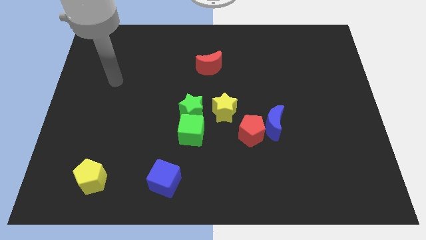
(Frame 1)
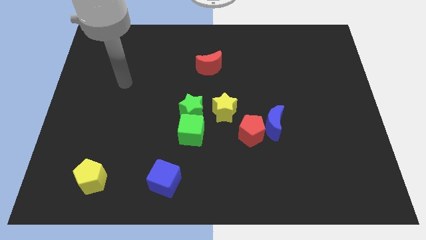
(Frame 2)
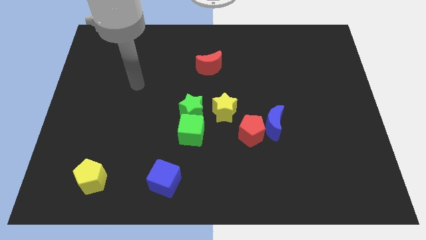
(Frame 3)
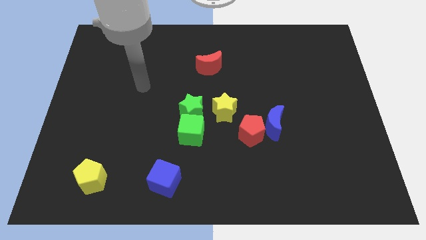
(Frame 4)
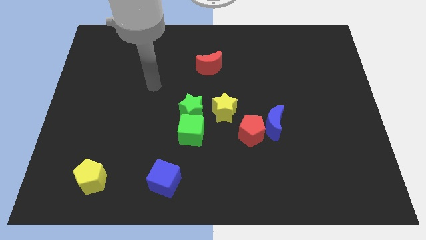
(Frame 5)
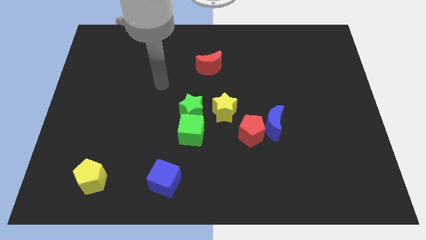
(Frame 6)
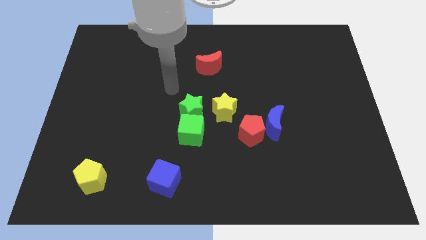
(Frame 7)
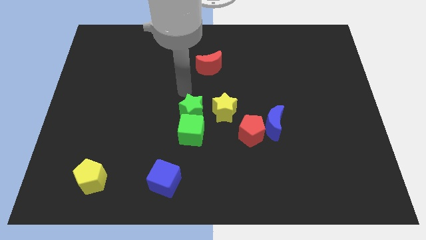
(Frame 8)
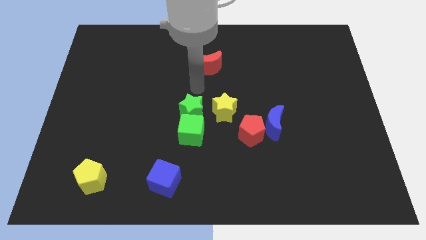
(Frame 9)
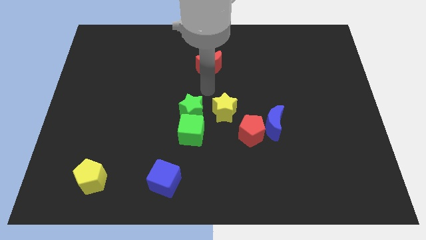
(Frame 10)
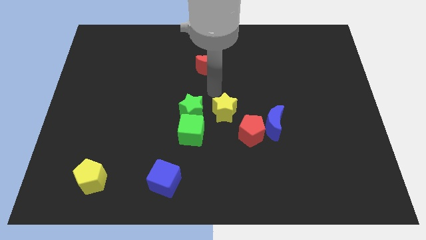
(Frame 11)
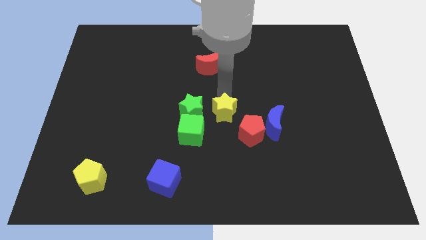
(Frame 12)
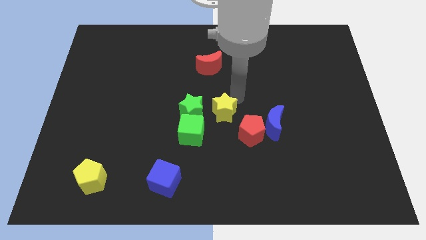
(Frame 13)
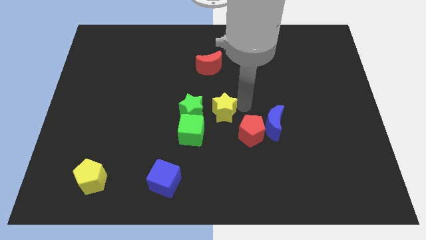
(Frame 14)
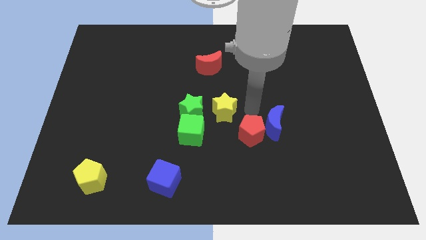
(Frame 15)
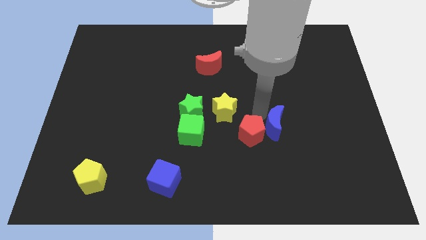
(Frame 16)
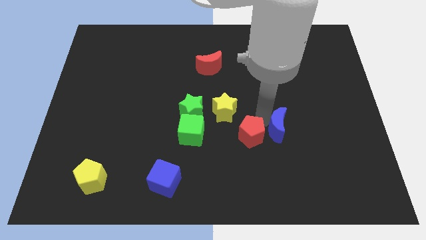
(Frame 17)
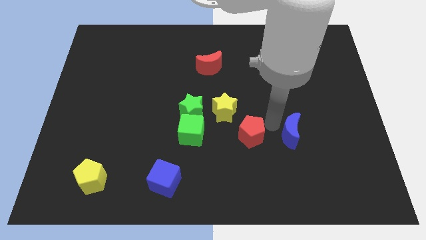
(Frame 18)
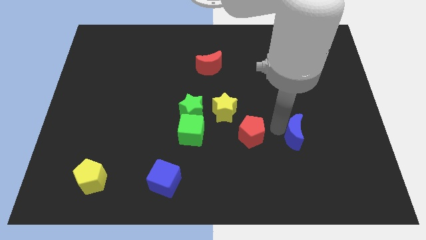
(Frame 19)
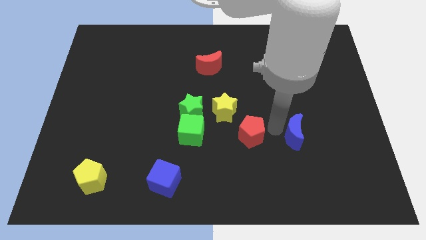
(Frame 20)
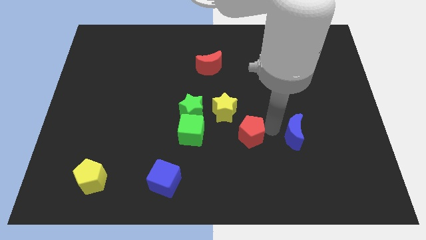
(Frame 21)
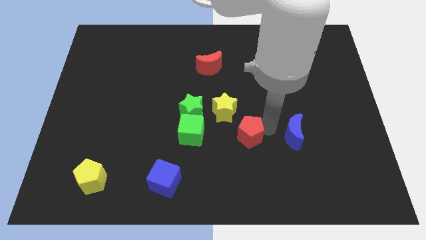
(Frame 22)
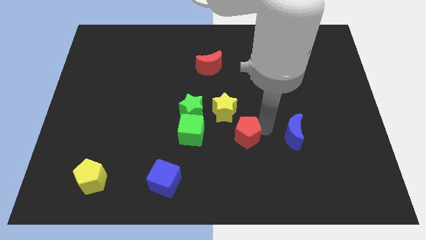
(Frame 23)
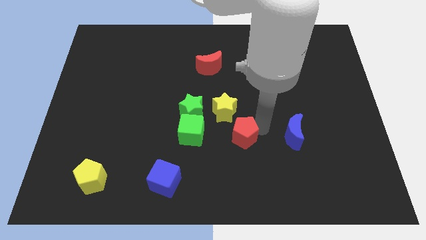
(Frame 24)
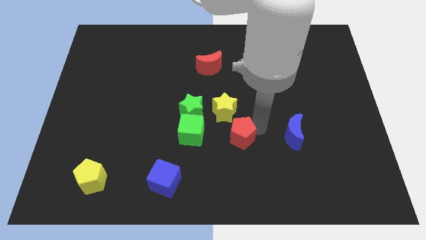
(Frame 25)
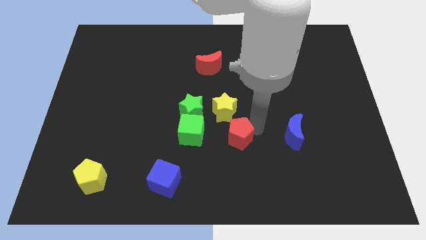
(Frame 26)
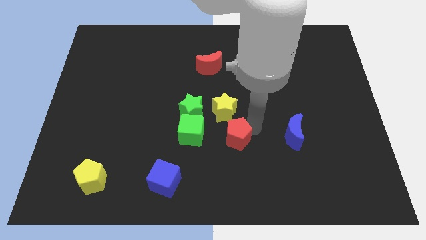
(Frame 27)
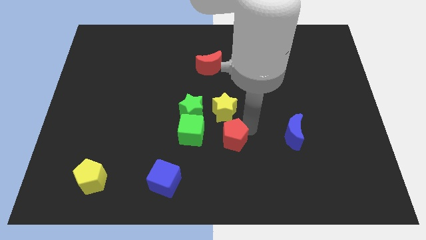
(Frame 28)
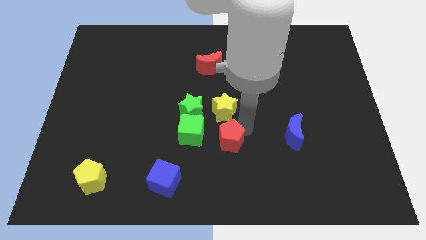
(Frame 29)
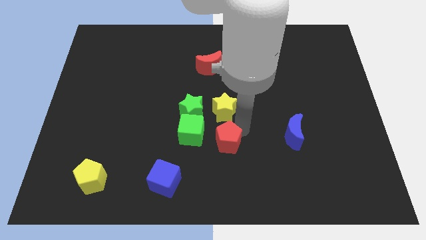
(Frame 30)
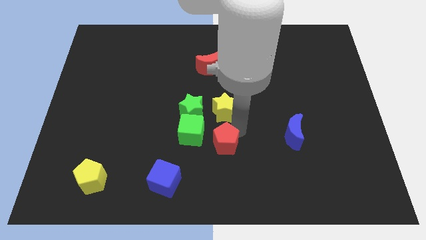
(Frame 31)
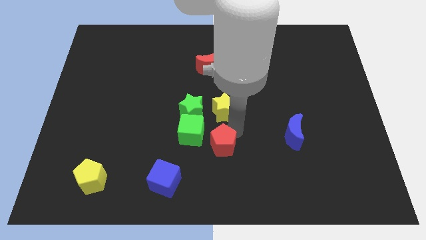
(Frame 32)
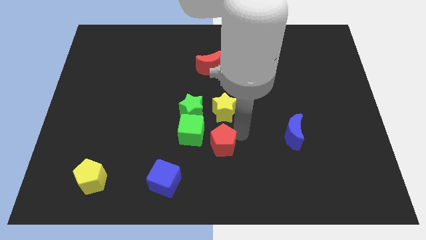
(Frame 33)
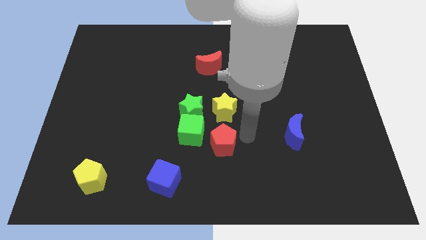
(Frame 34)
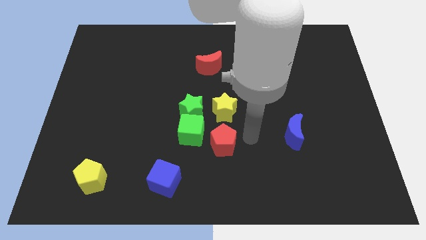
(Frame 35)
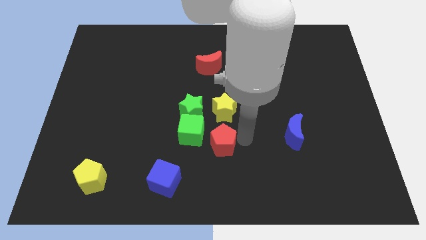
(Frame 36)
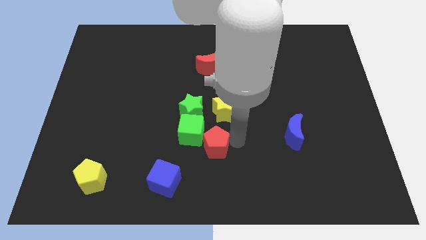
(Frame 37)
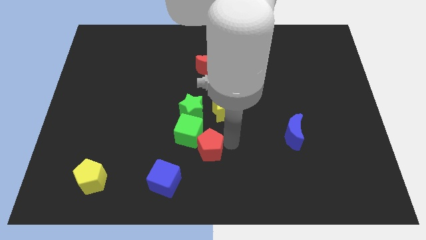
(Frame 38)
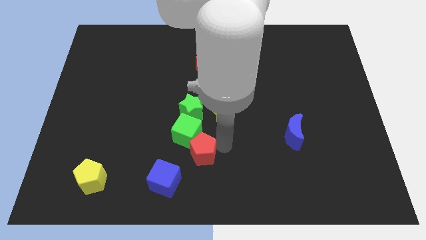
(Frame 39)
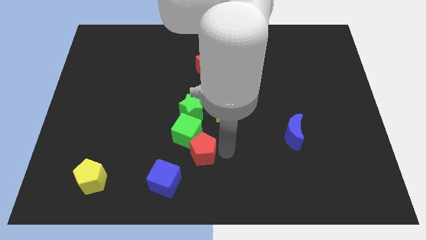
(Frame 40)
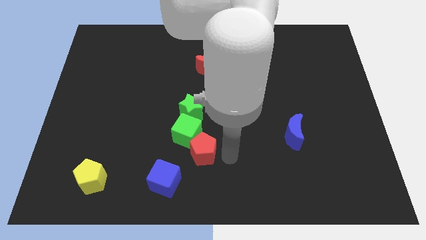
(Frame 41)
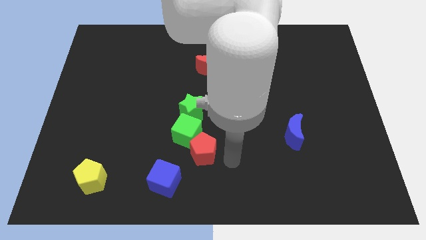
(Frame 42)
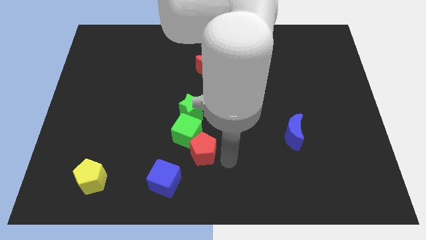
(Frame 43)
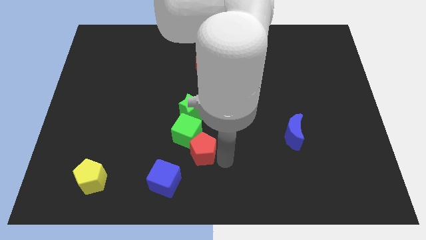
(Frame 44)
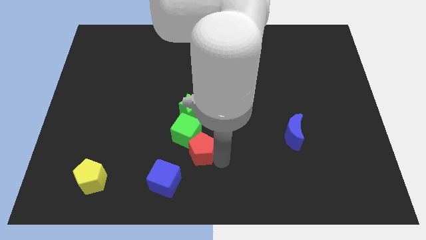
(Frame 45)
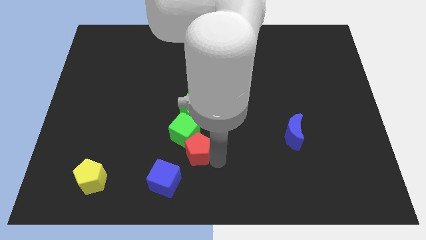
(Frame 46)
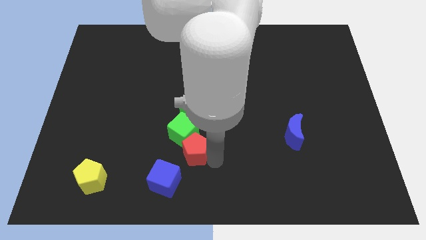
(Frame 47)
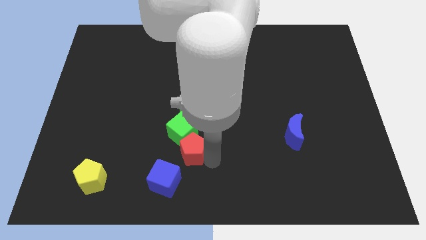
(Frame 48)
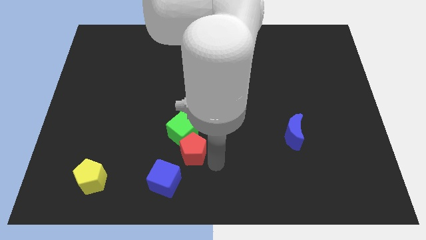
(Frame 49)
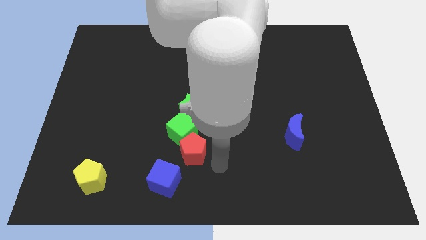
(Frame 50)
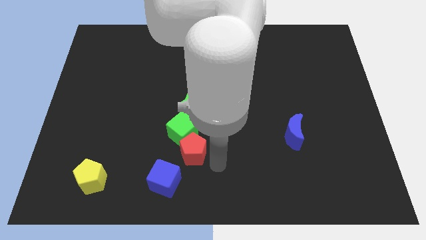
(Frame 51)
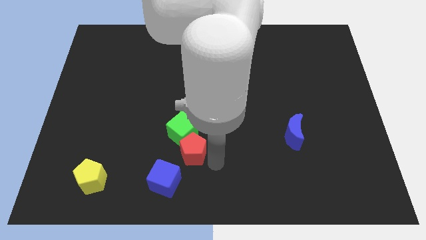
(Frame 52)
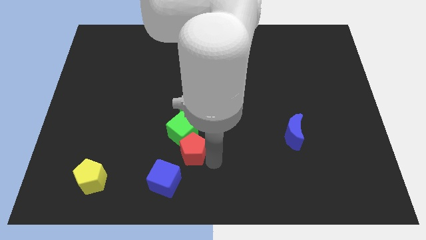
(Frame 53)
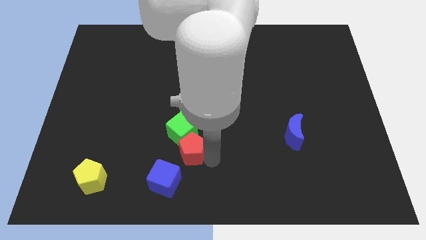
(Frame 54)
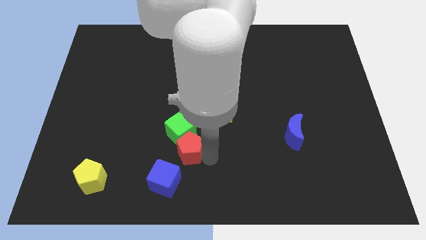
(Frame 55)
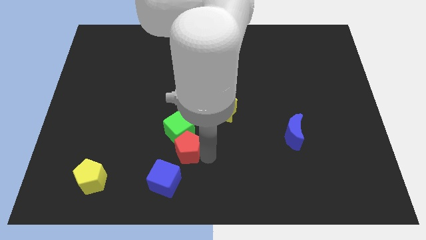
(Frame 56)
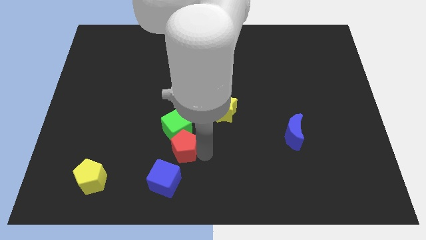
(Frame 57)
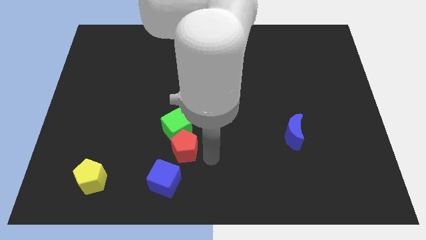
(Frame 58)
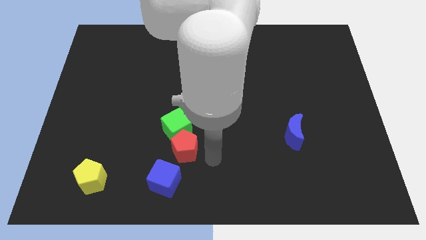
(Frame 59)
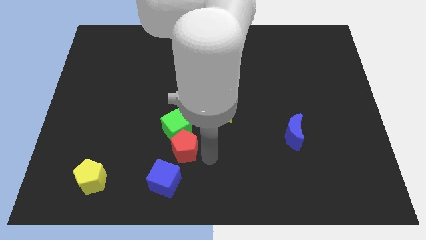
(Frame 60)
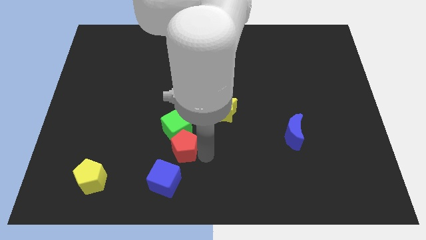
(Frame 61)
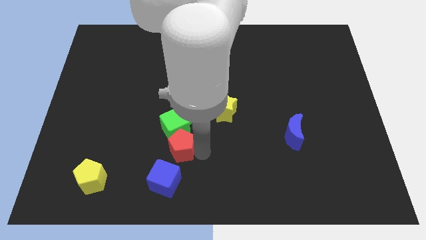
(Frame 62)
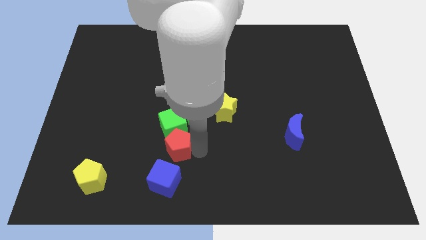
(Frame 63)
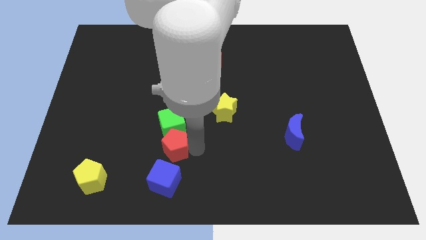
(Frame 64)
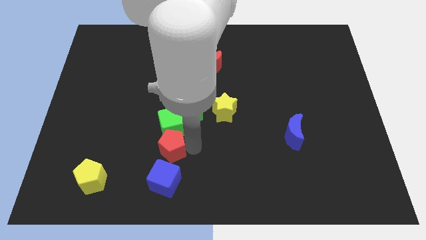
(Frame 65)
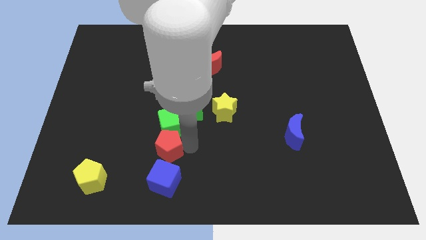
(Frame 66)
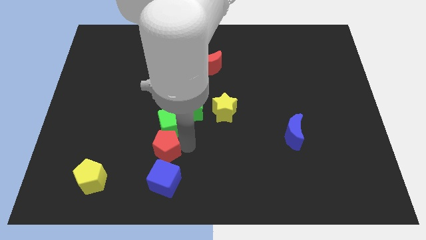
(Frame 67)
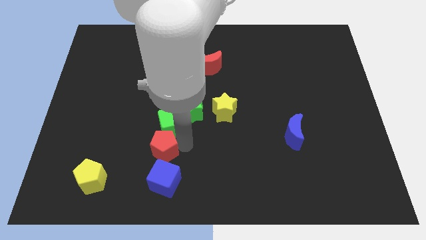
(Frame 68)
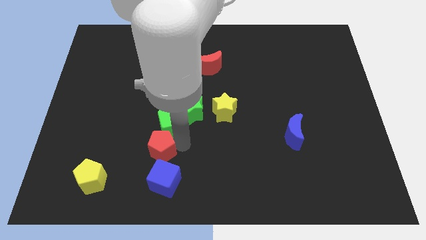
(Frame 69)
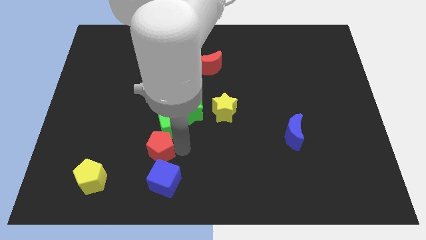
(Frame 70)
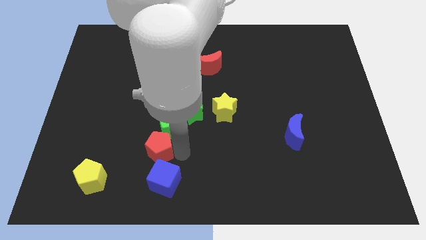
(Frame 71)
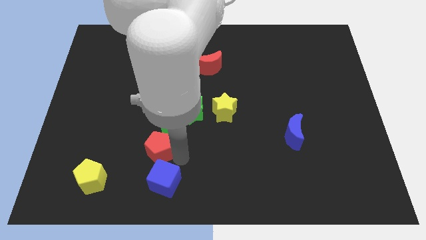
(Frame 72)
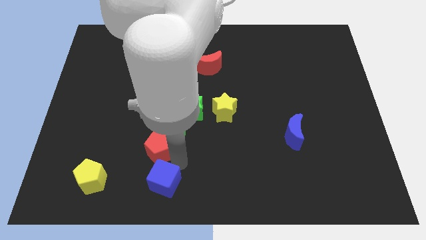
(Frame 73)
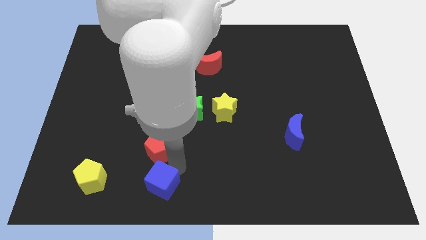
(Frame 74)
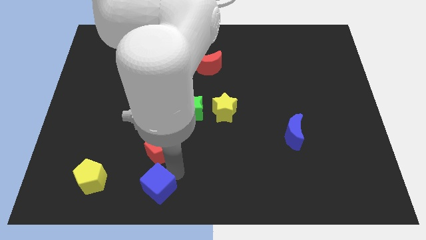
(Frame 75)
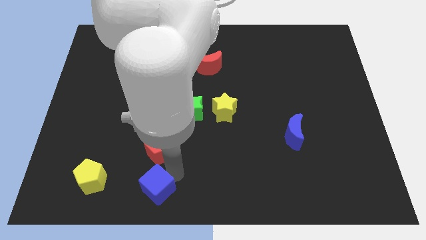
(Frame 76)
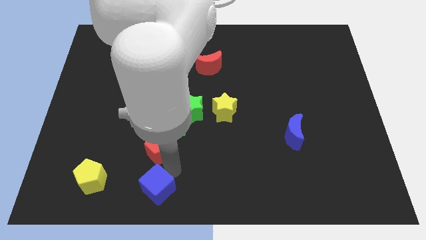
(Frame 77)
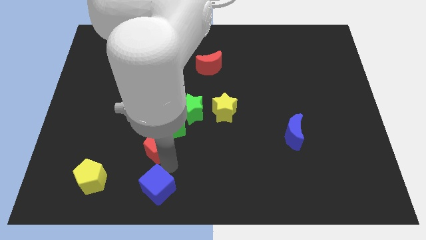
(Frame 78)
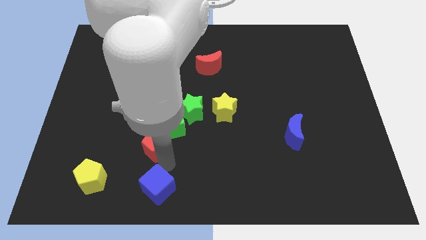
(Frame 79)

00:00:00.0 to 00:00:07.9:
slide the red pentagon to the left
